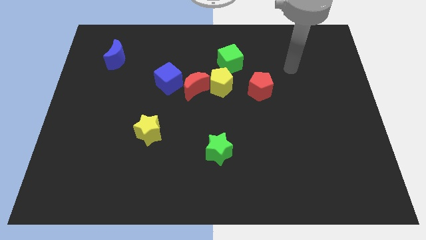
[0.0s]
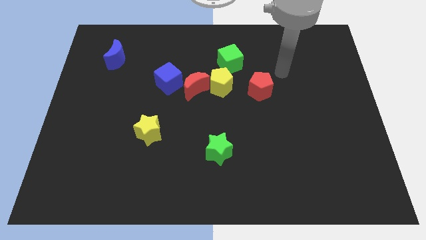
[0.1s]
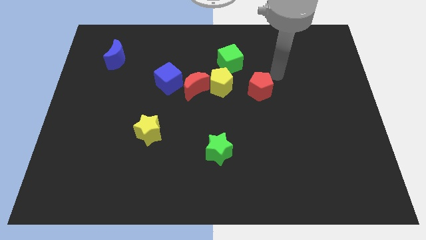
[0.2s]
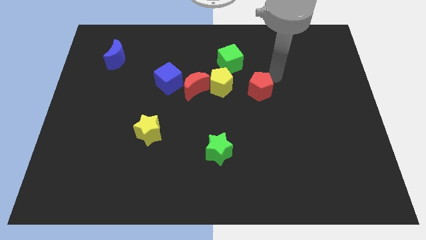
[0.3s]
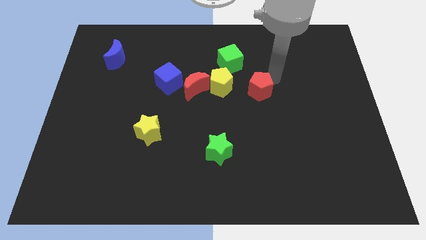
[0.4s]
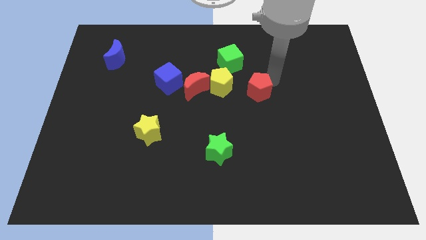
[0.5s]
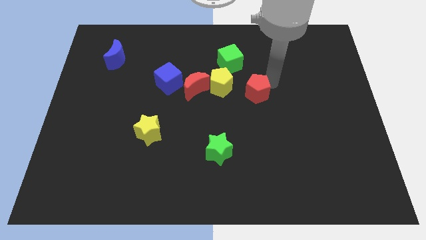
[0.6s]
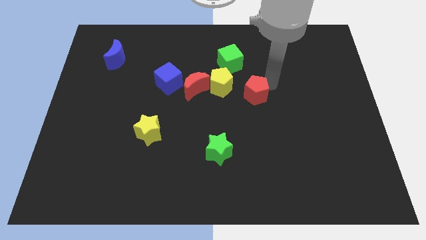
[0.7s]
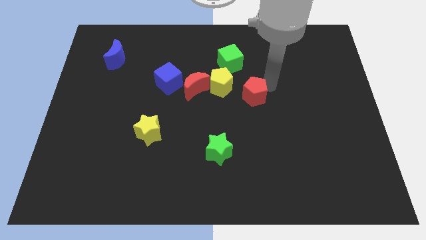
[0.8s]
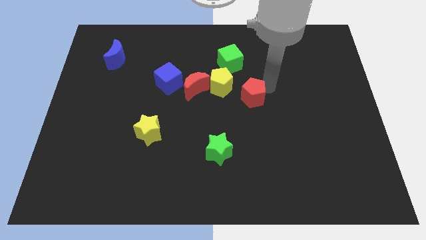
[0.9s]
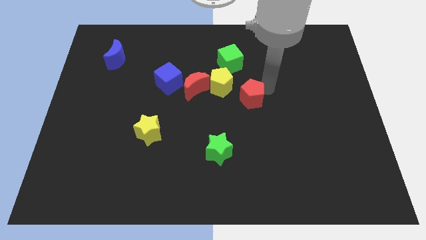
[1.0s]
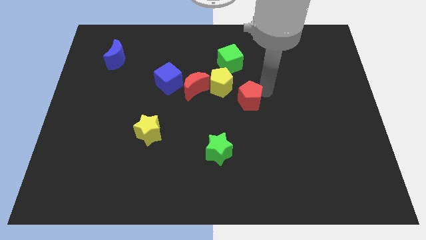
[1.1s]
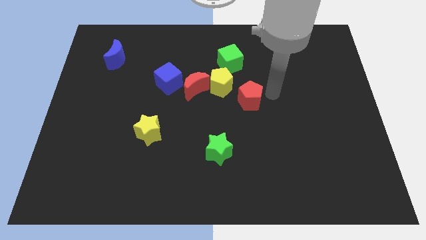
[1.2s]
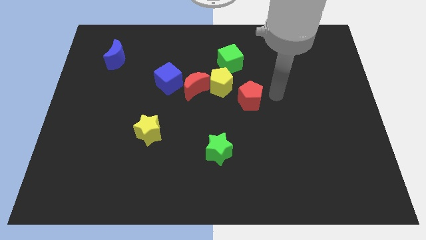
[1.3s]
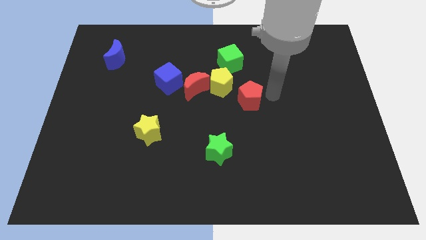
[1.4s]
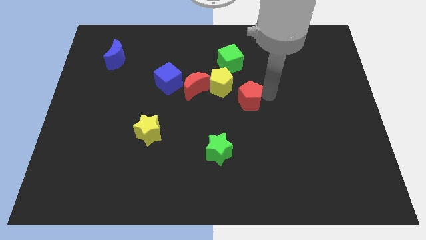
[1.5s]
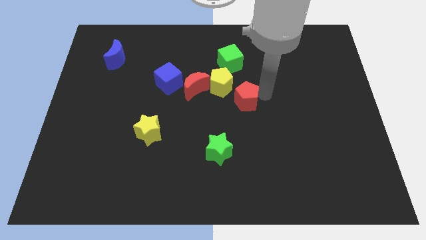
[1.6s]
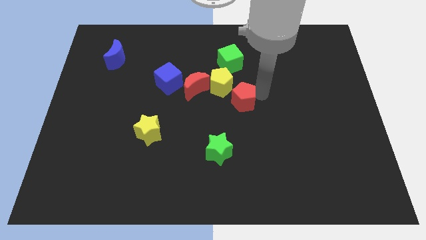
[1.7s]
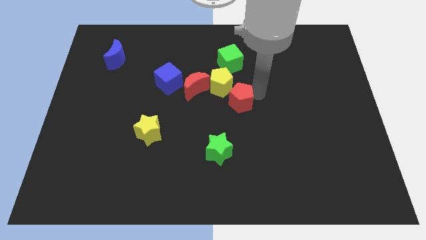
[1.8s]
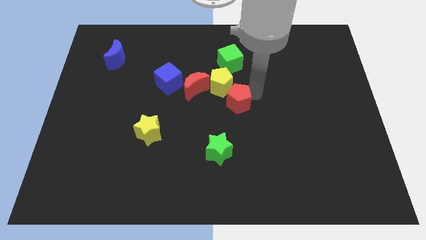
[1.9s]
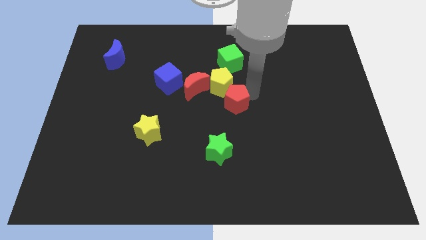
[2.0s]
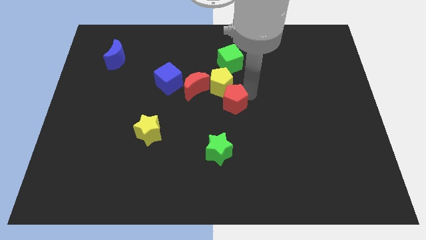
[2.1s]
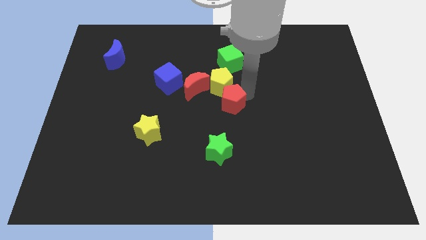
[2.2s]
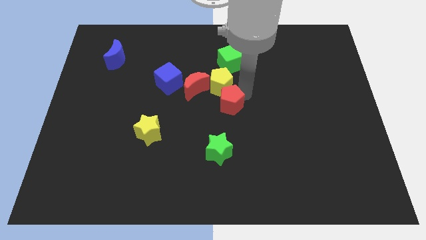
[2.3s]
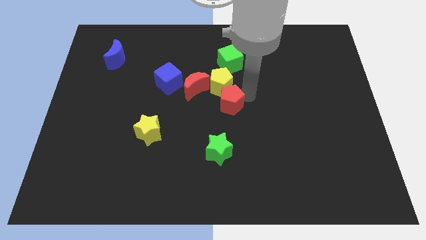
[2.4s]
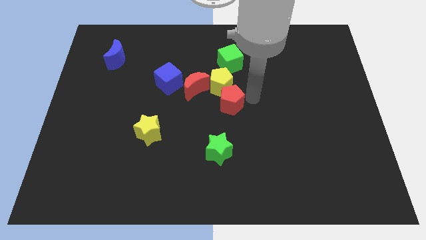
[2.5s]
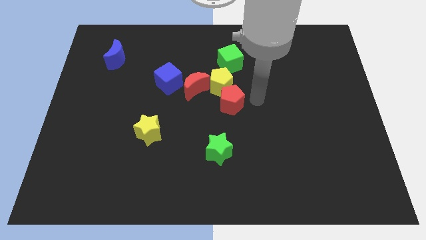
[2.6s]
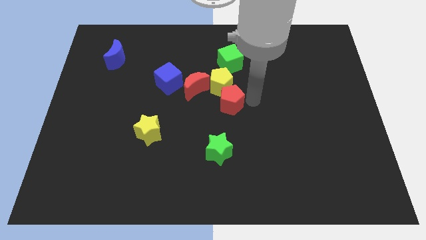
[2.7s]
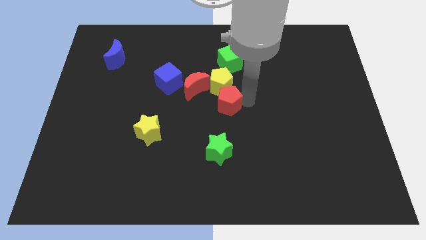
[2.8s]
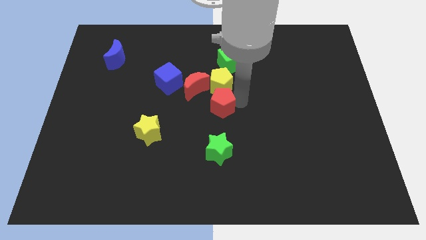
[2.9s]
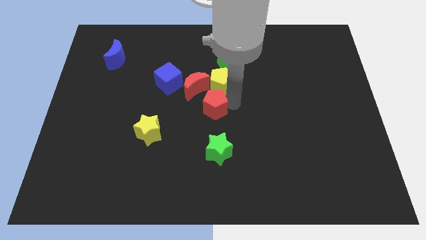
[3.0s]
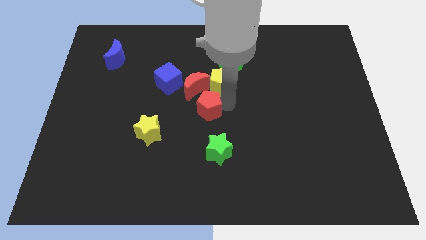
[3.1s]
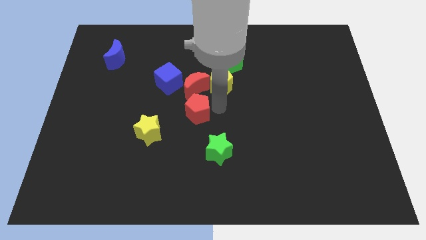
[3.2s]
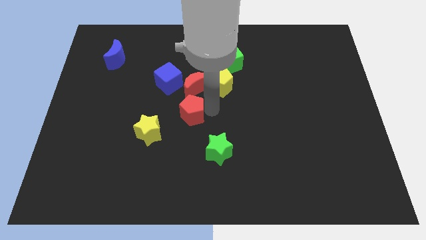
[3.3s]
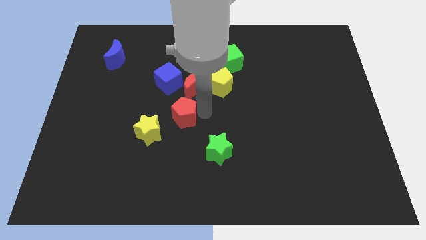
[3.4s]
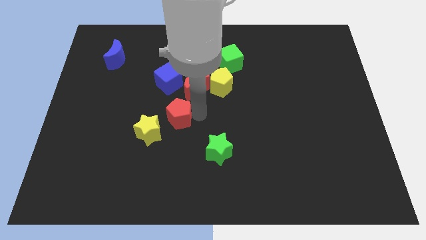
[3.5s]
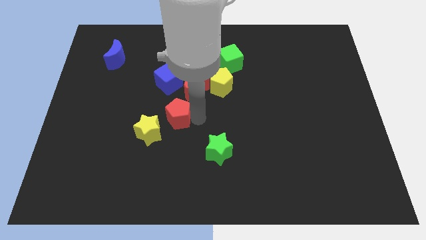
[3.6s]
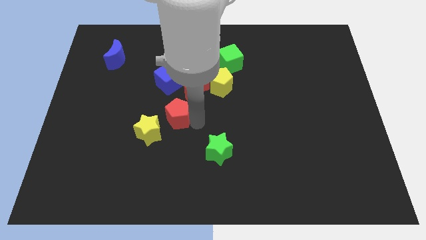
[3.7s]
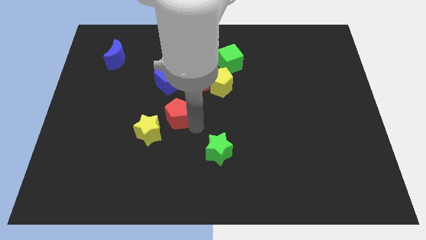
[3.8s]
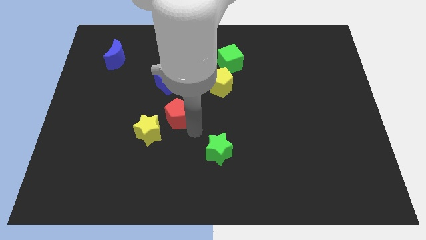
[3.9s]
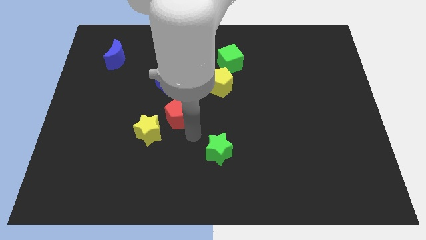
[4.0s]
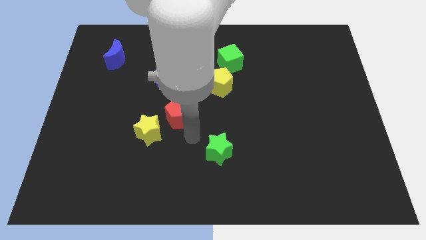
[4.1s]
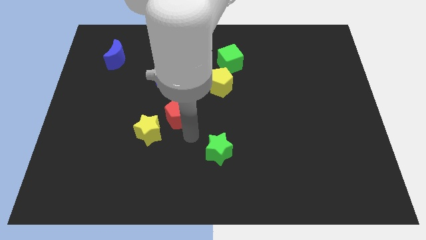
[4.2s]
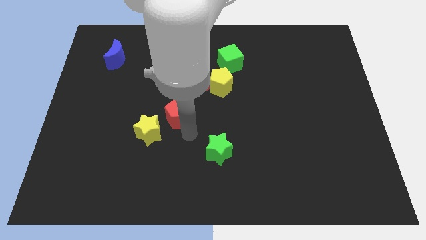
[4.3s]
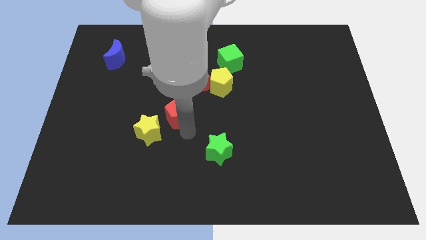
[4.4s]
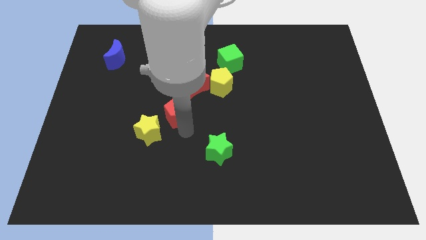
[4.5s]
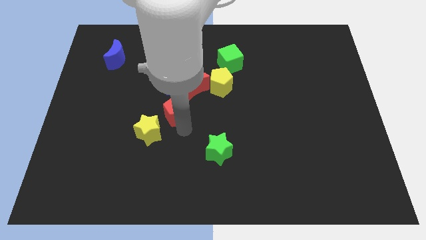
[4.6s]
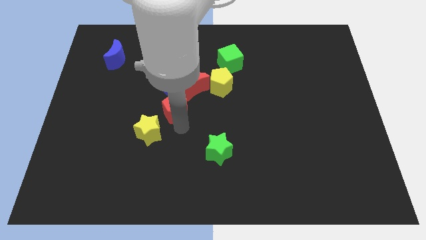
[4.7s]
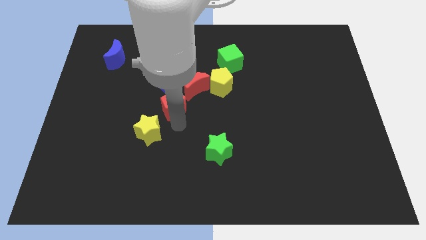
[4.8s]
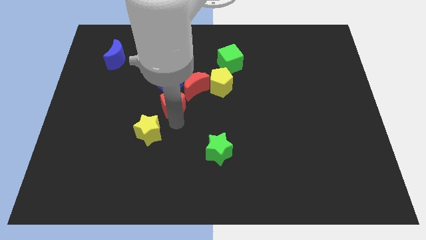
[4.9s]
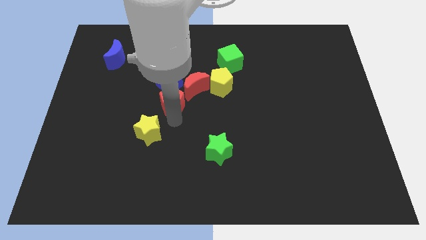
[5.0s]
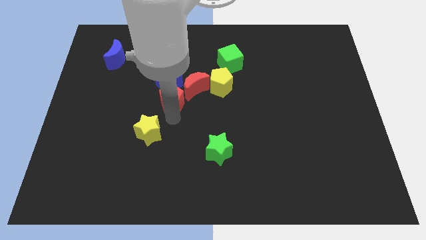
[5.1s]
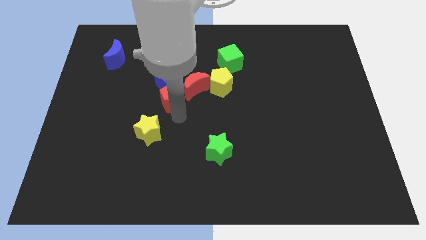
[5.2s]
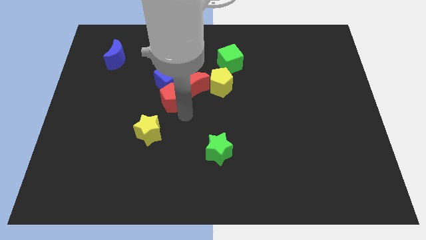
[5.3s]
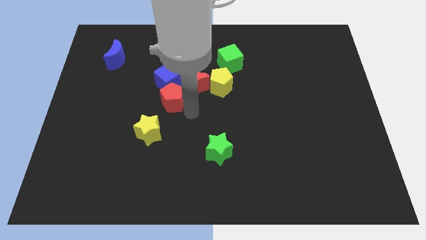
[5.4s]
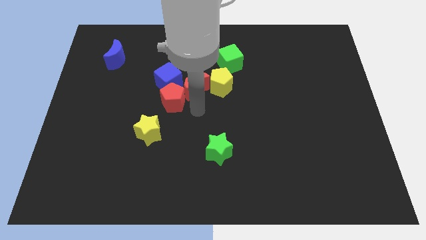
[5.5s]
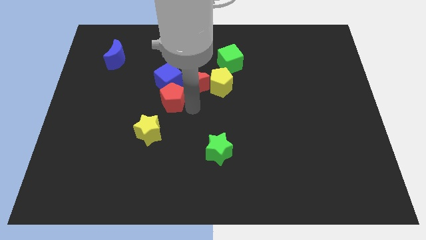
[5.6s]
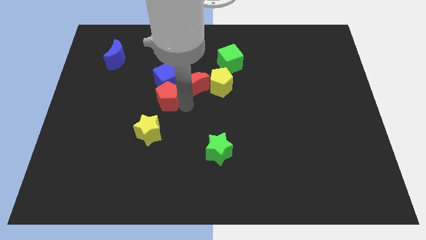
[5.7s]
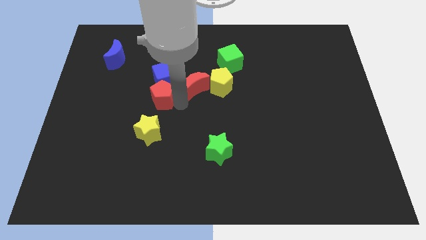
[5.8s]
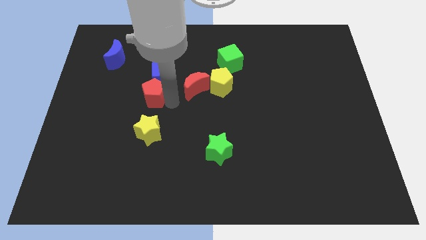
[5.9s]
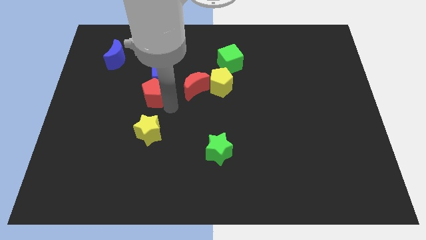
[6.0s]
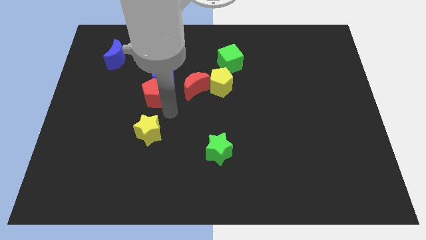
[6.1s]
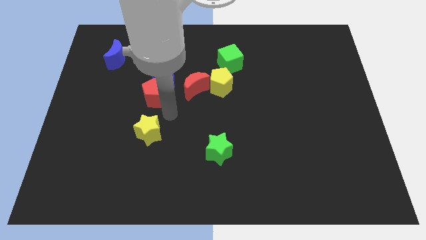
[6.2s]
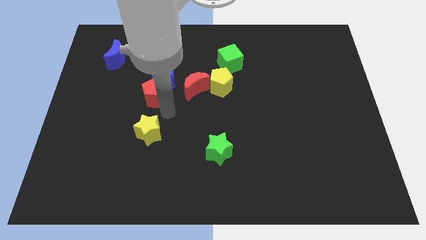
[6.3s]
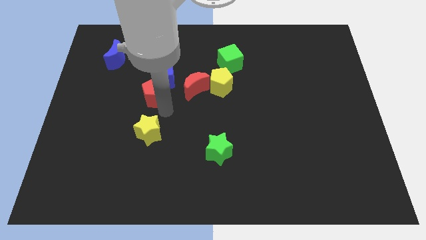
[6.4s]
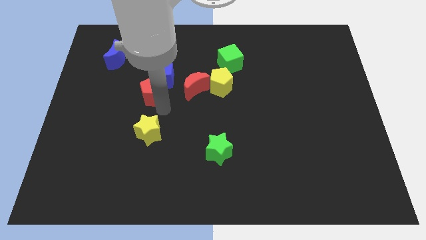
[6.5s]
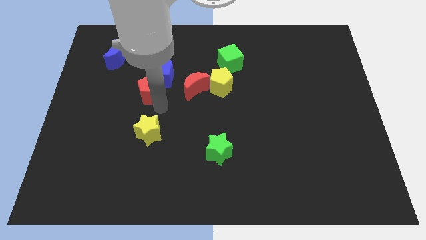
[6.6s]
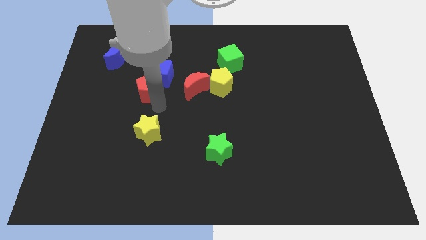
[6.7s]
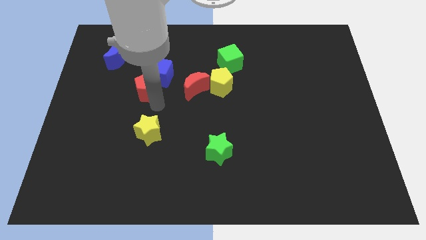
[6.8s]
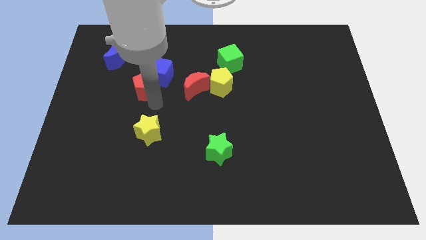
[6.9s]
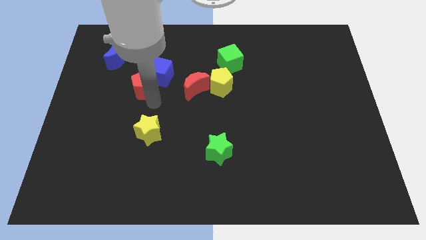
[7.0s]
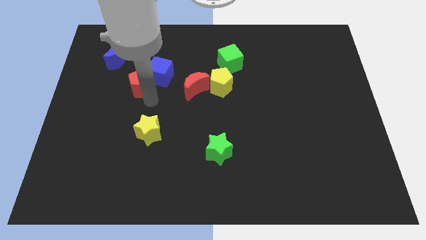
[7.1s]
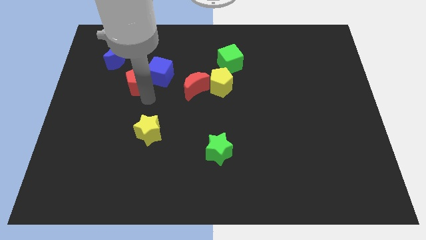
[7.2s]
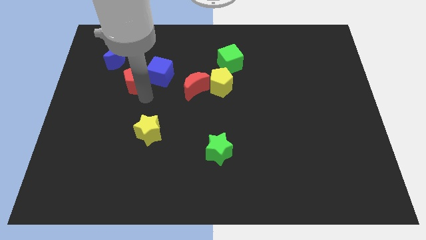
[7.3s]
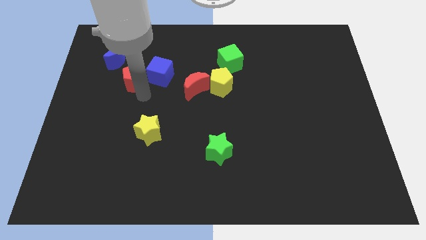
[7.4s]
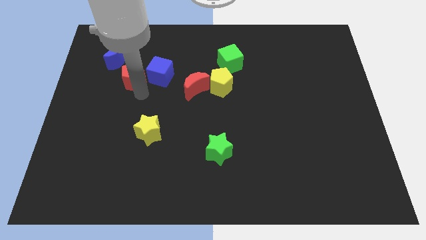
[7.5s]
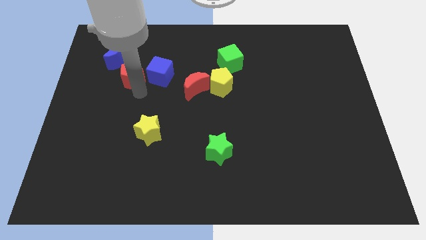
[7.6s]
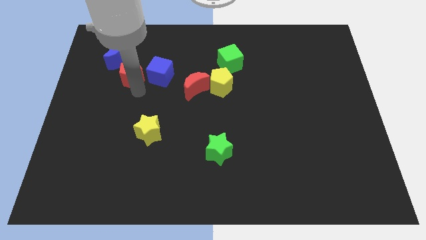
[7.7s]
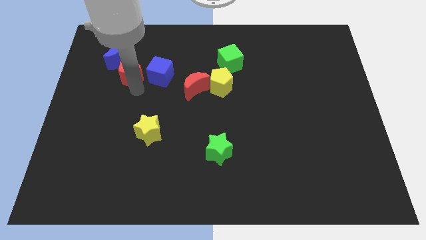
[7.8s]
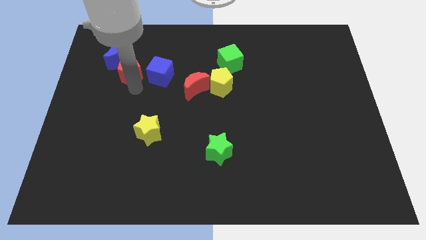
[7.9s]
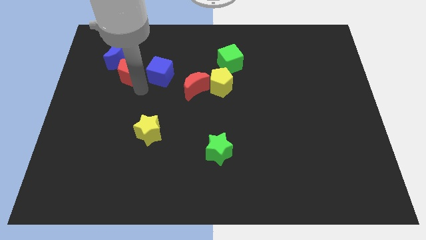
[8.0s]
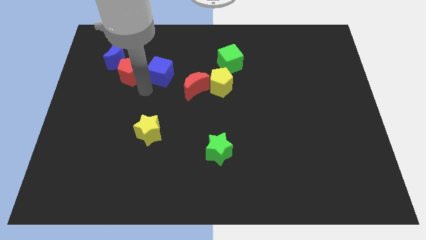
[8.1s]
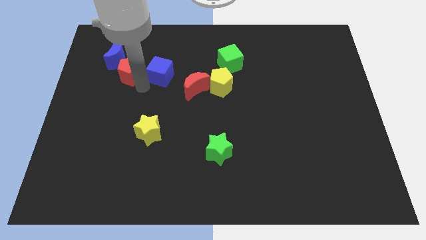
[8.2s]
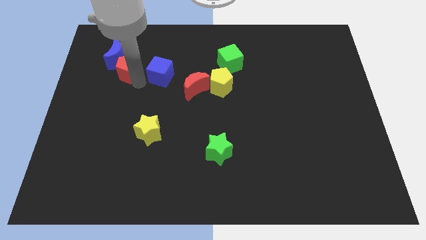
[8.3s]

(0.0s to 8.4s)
push the red pentagon close to the blue moon

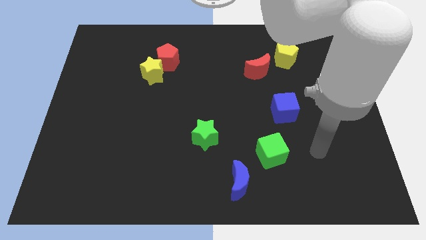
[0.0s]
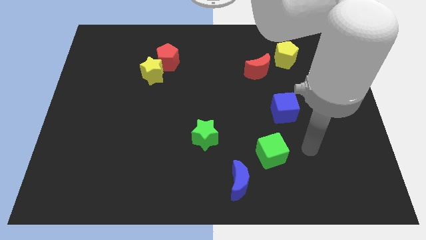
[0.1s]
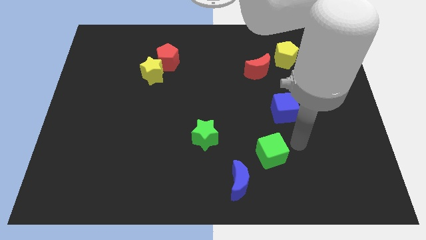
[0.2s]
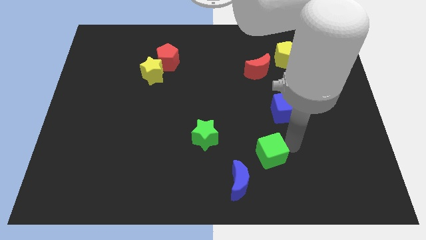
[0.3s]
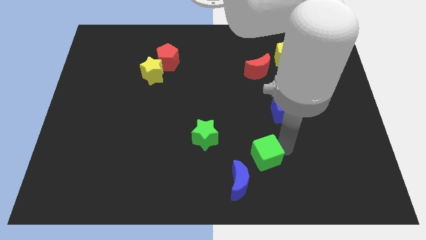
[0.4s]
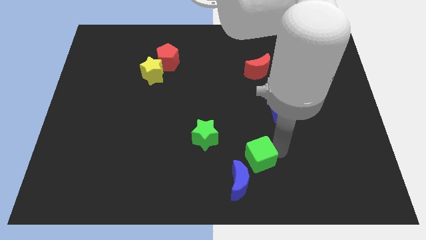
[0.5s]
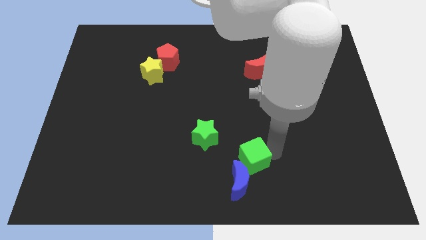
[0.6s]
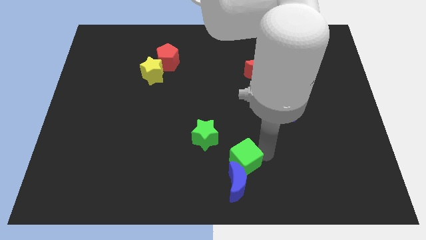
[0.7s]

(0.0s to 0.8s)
push the green cube close to the blue moon
